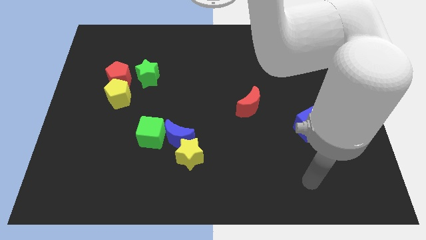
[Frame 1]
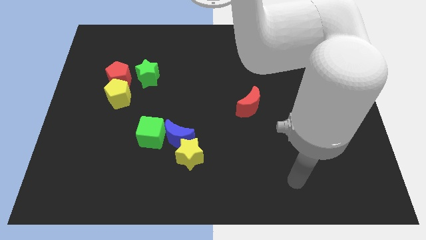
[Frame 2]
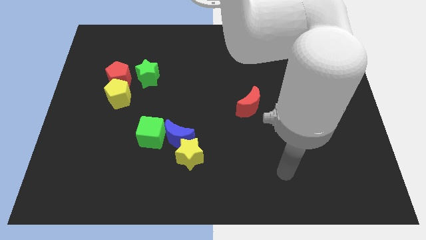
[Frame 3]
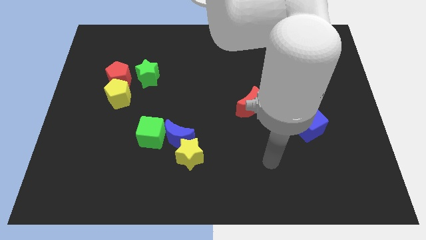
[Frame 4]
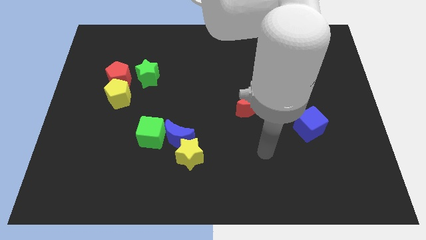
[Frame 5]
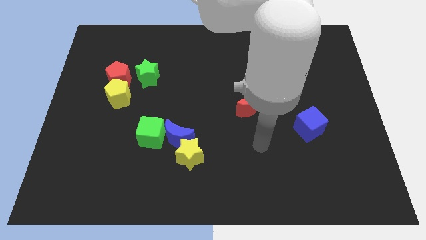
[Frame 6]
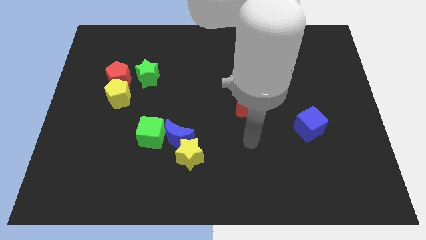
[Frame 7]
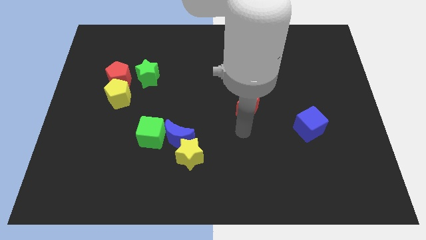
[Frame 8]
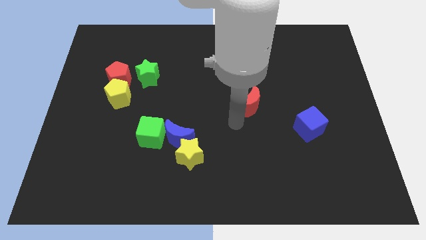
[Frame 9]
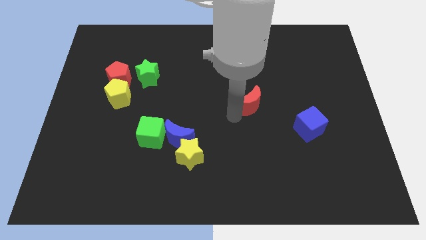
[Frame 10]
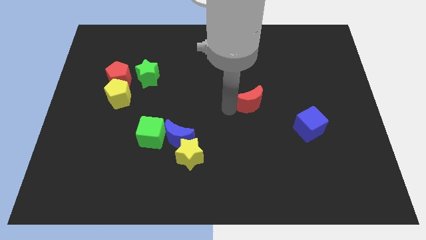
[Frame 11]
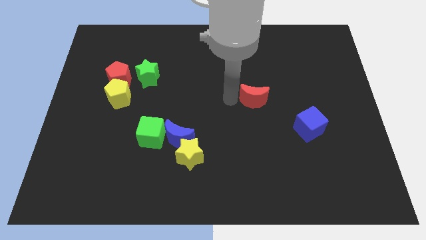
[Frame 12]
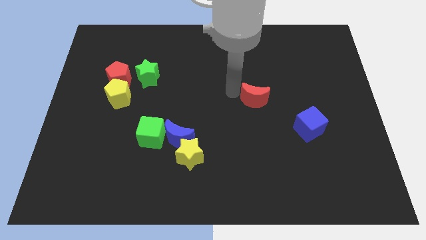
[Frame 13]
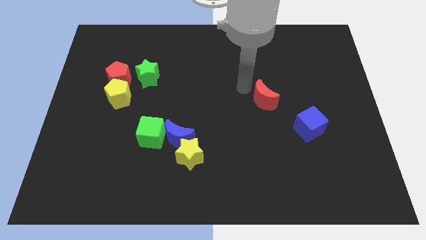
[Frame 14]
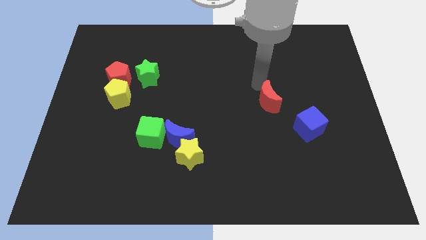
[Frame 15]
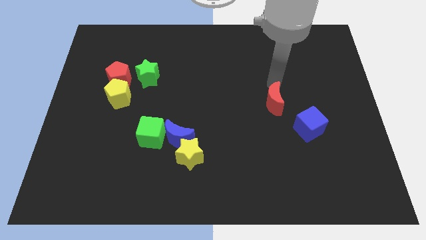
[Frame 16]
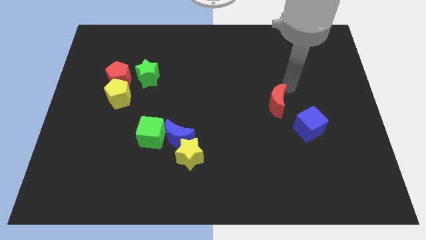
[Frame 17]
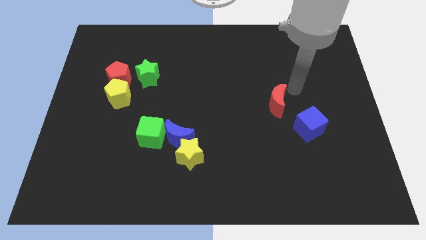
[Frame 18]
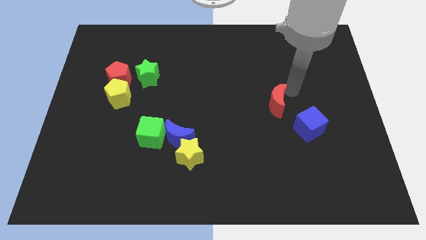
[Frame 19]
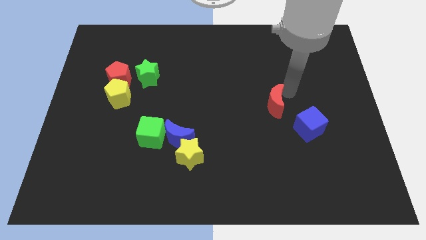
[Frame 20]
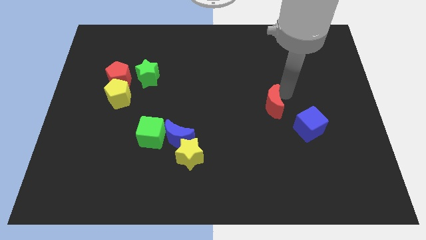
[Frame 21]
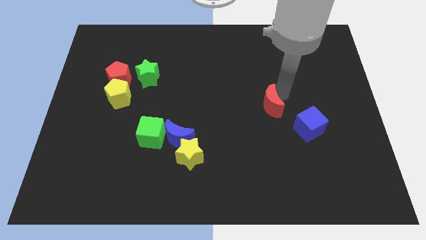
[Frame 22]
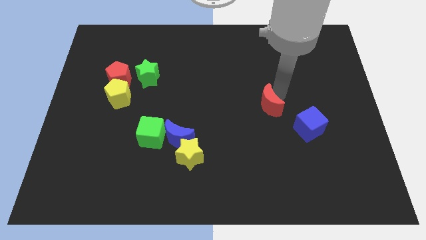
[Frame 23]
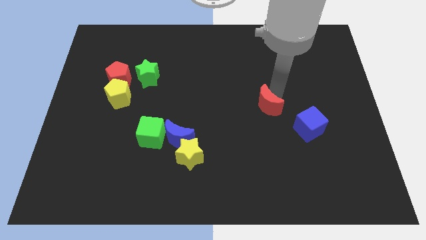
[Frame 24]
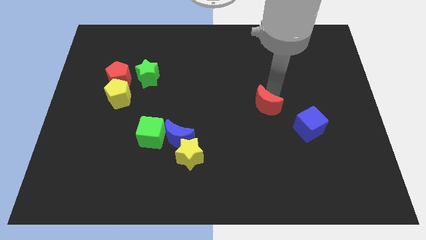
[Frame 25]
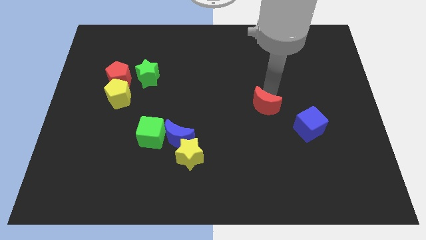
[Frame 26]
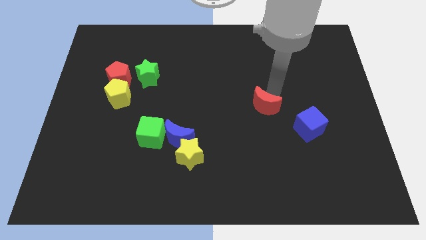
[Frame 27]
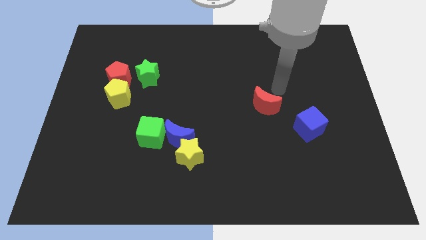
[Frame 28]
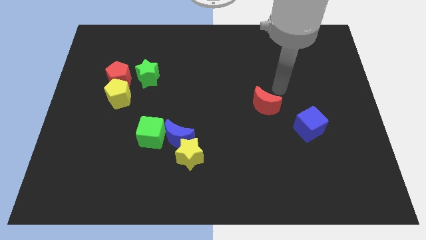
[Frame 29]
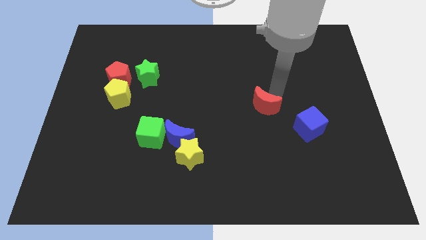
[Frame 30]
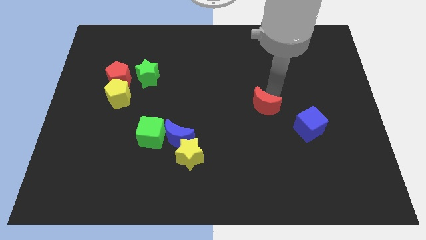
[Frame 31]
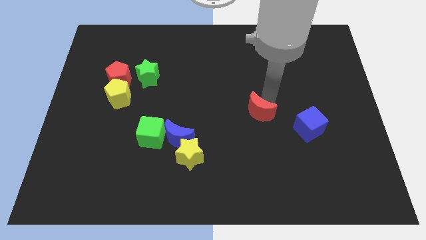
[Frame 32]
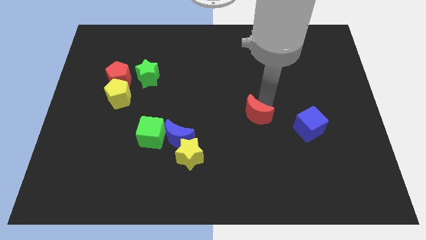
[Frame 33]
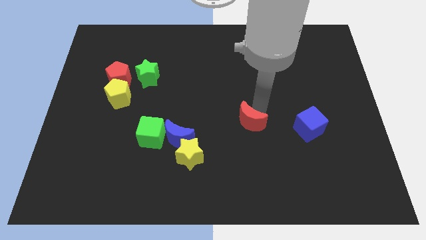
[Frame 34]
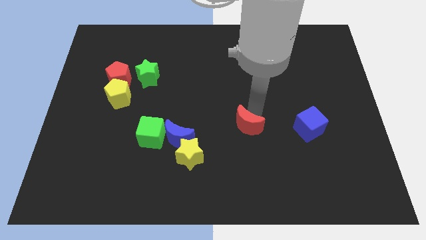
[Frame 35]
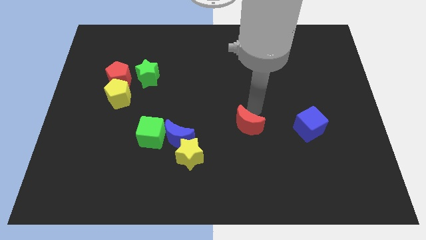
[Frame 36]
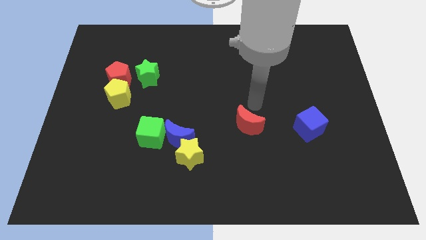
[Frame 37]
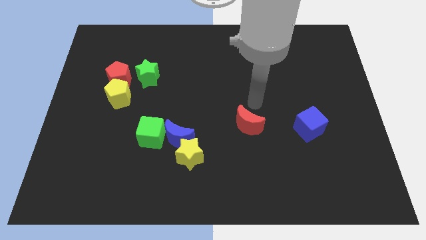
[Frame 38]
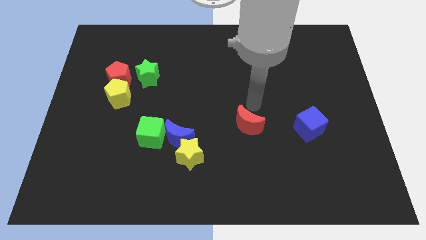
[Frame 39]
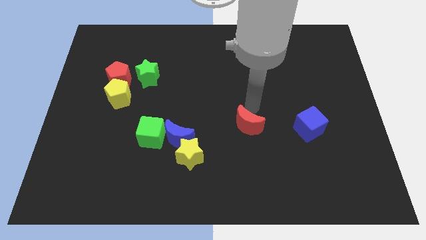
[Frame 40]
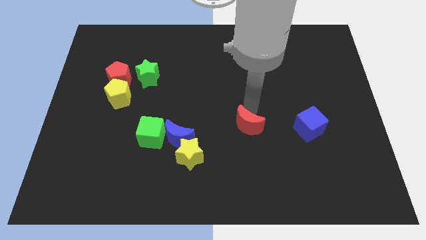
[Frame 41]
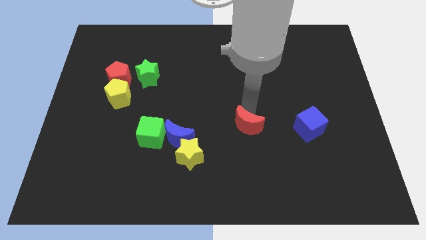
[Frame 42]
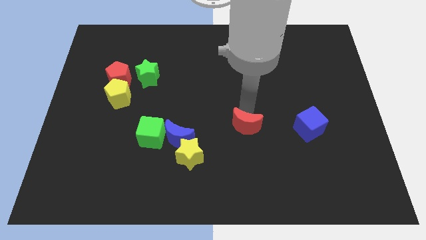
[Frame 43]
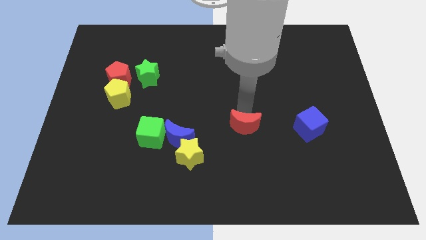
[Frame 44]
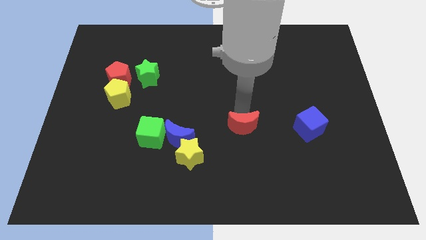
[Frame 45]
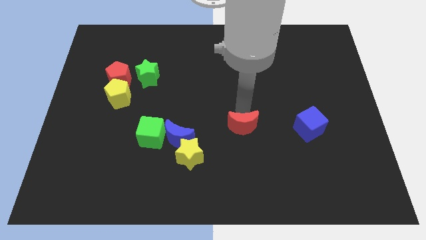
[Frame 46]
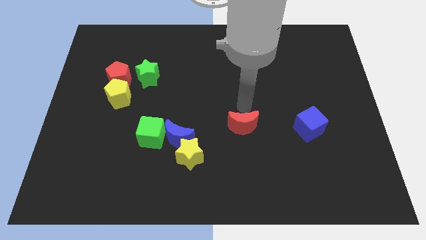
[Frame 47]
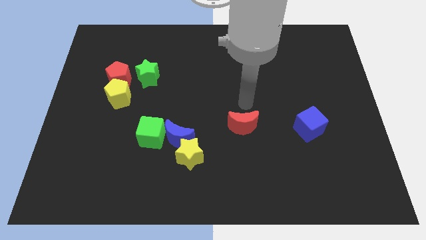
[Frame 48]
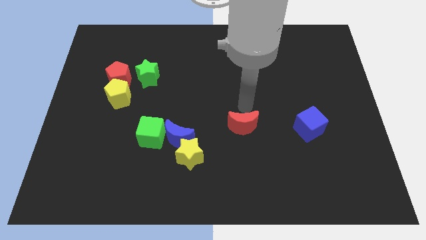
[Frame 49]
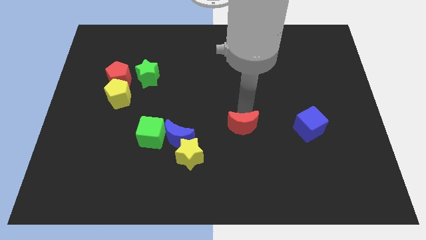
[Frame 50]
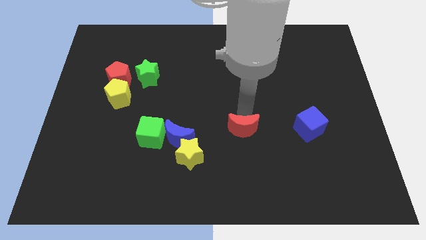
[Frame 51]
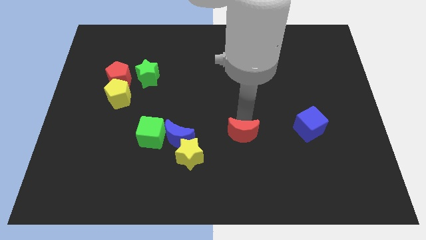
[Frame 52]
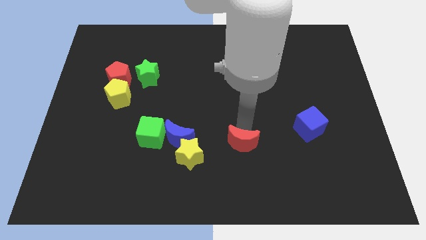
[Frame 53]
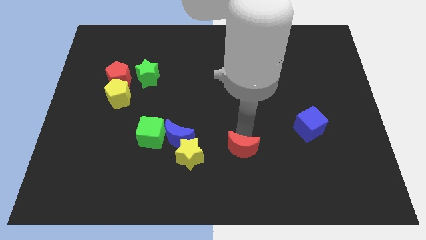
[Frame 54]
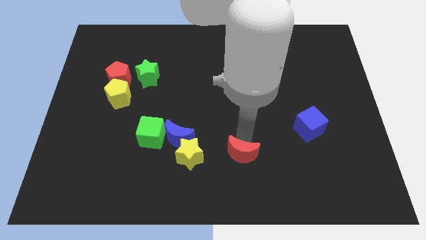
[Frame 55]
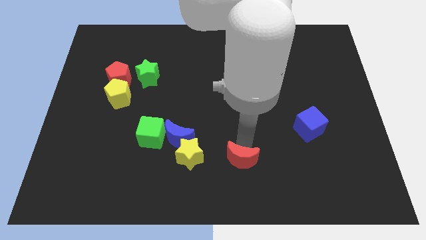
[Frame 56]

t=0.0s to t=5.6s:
push the red moon to the bottom side

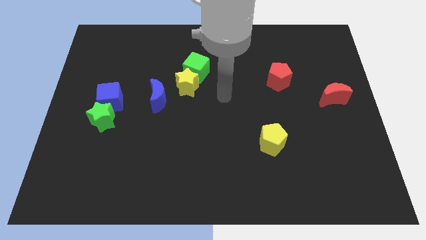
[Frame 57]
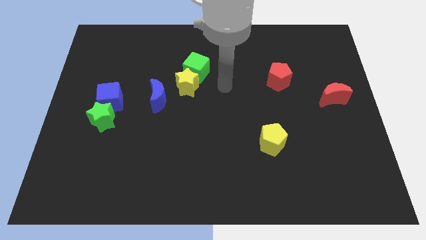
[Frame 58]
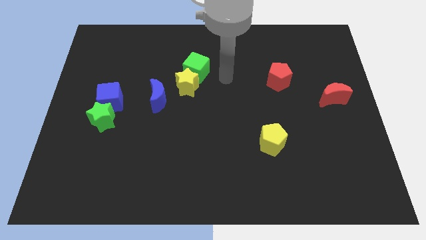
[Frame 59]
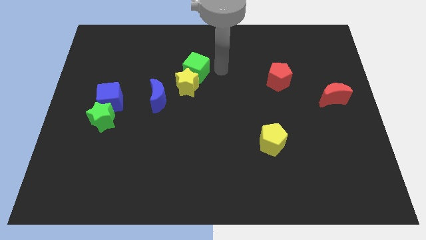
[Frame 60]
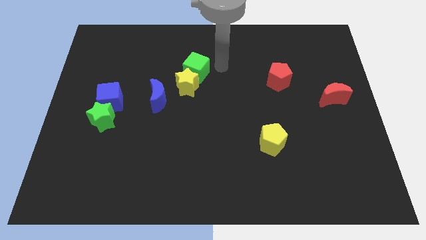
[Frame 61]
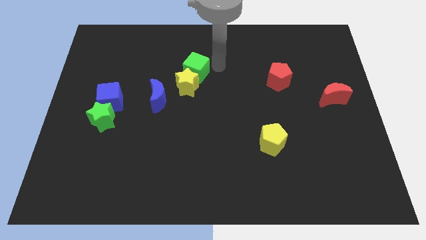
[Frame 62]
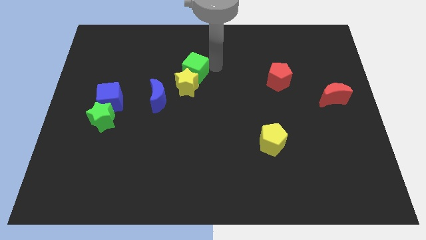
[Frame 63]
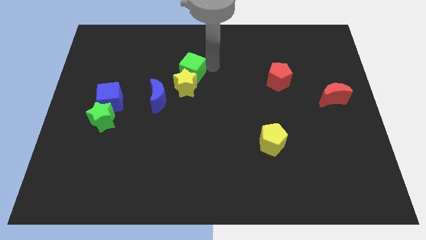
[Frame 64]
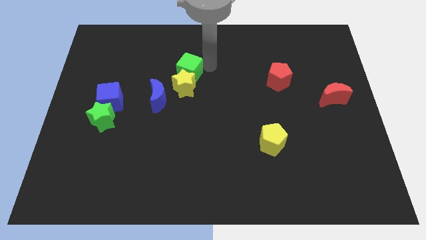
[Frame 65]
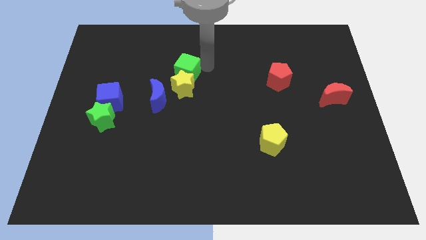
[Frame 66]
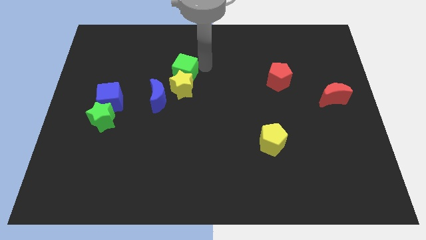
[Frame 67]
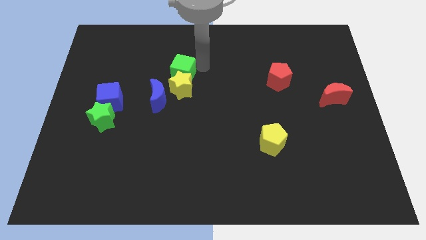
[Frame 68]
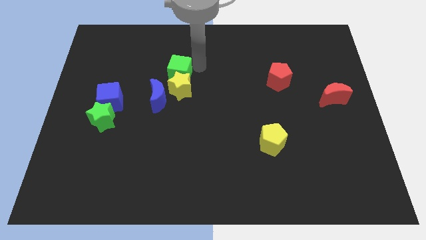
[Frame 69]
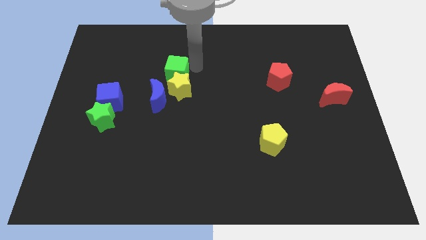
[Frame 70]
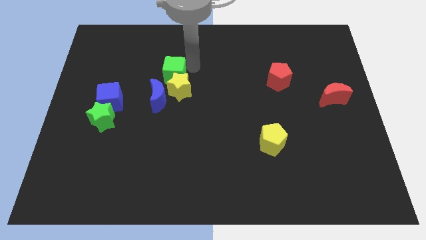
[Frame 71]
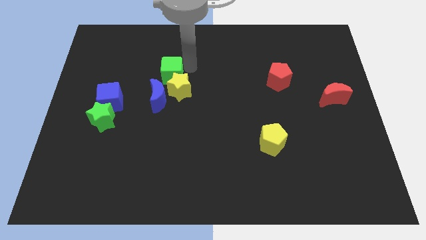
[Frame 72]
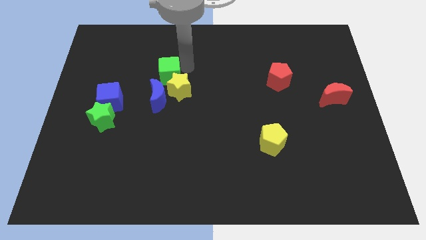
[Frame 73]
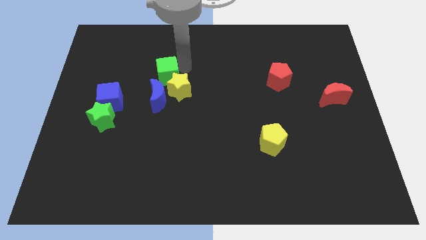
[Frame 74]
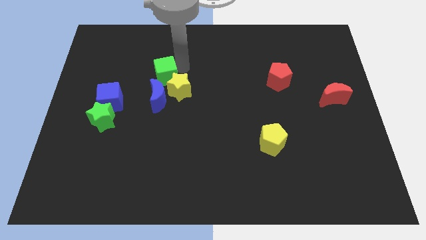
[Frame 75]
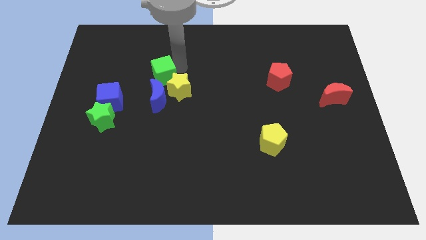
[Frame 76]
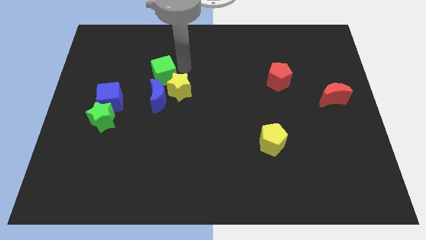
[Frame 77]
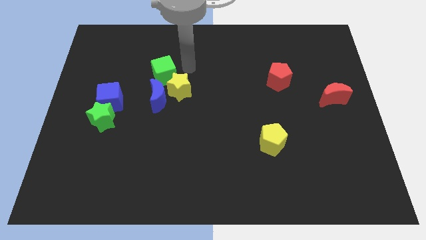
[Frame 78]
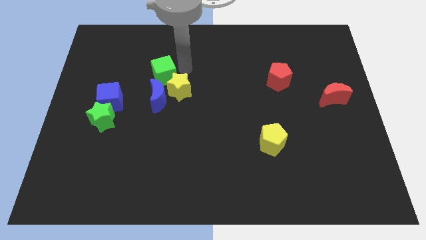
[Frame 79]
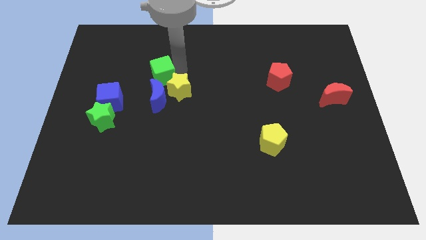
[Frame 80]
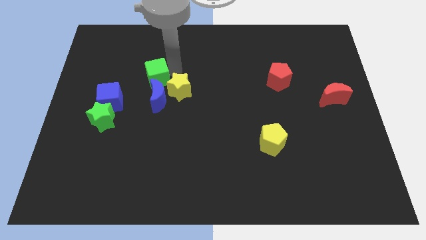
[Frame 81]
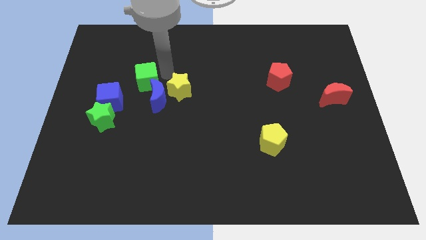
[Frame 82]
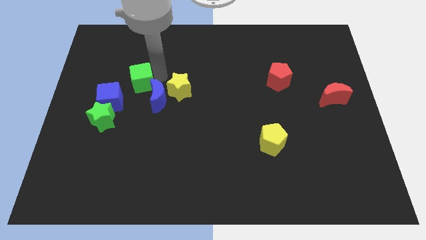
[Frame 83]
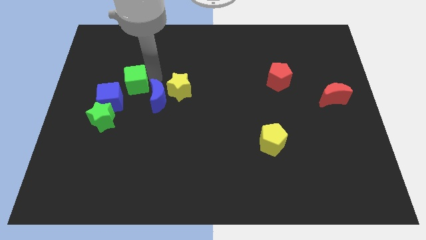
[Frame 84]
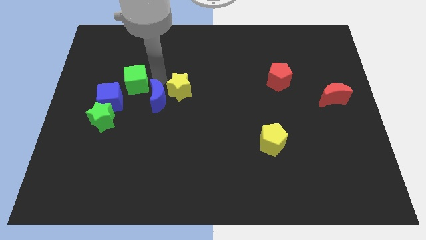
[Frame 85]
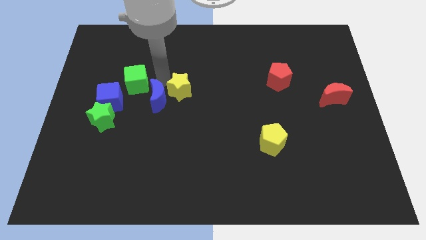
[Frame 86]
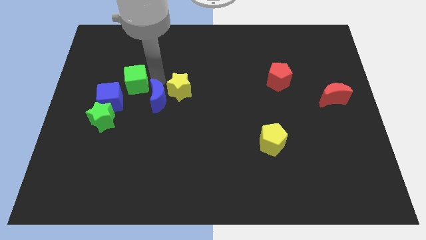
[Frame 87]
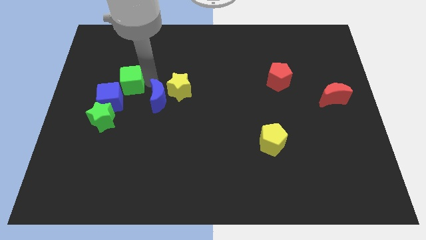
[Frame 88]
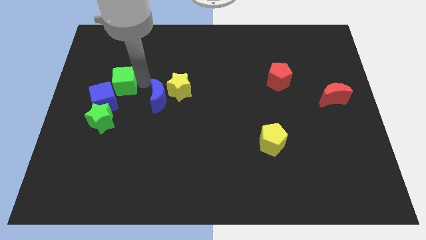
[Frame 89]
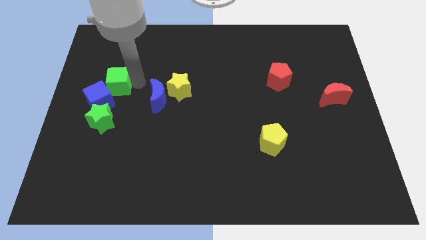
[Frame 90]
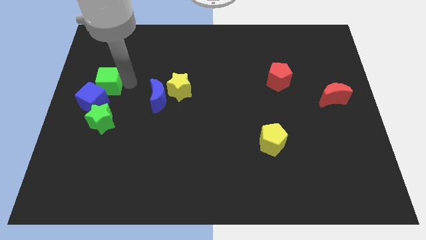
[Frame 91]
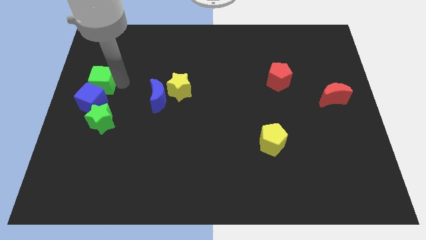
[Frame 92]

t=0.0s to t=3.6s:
push the green cube to the center left
